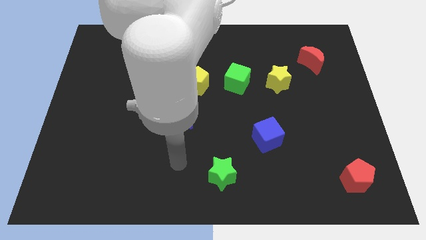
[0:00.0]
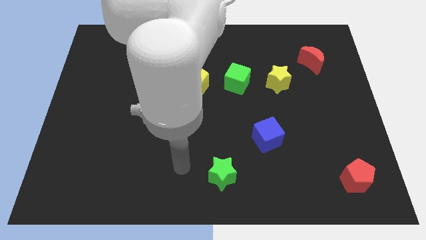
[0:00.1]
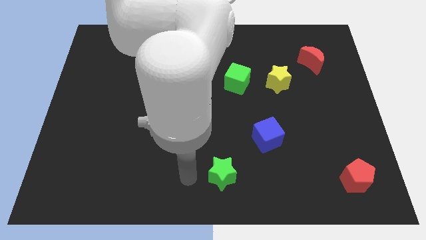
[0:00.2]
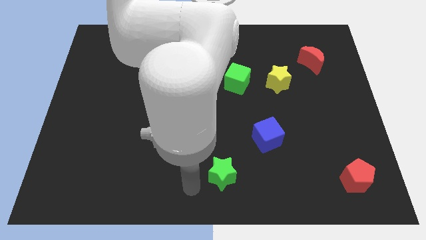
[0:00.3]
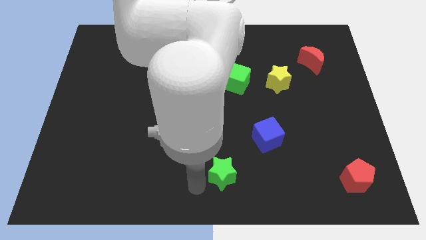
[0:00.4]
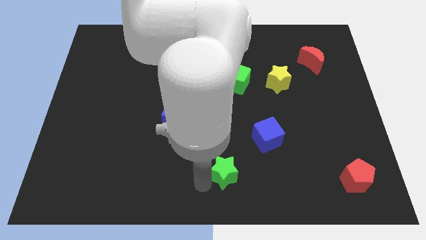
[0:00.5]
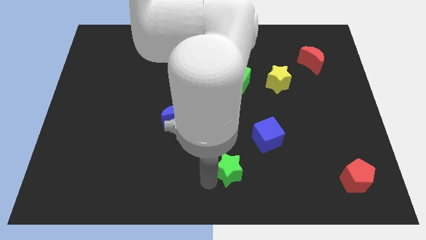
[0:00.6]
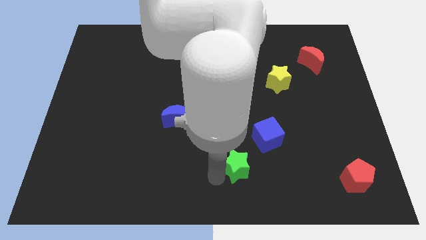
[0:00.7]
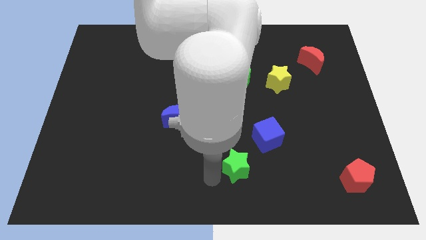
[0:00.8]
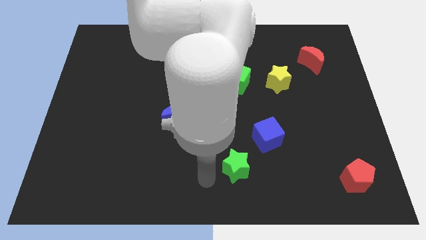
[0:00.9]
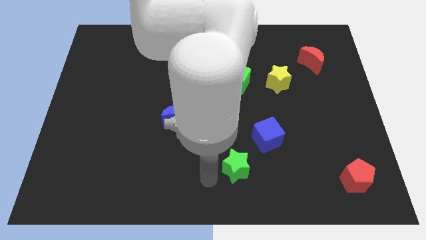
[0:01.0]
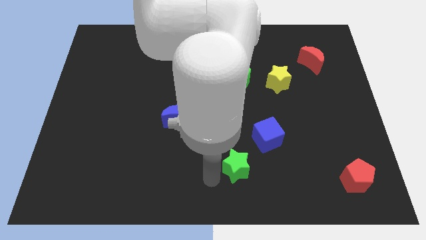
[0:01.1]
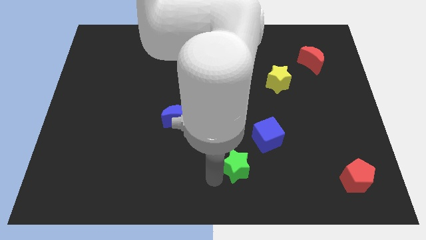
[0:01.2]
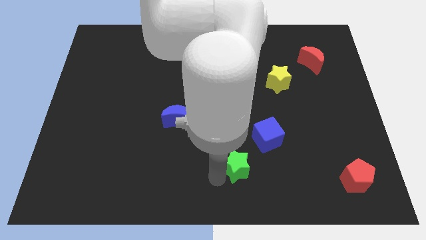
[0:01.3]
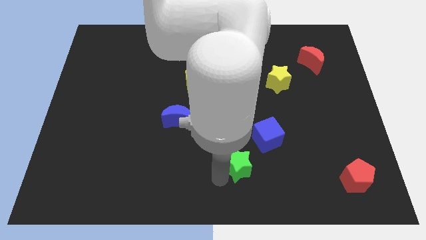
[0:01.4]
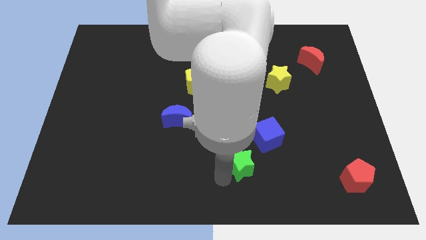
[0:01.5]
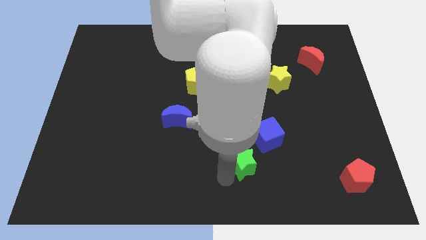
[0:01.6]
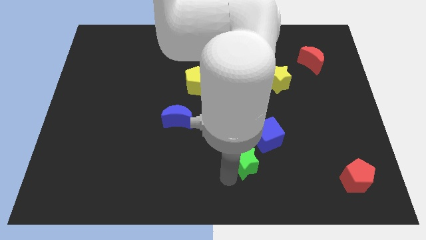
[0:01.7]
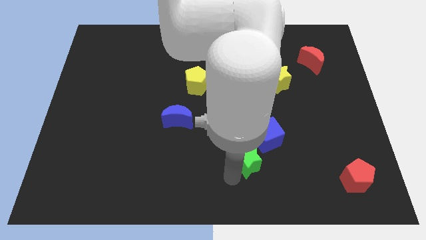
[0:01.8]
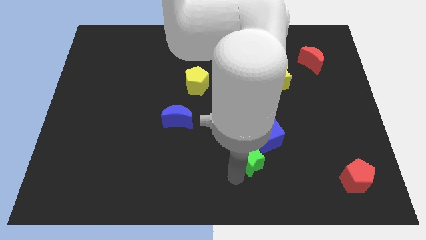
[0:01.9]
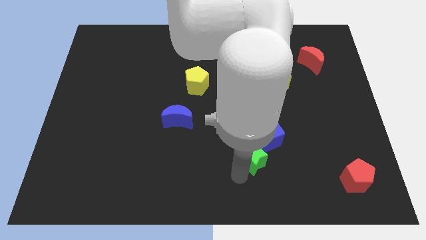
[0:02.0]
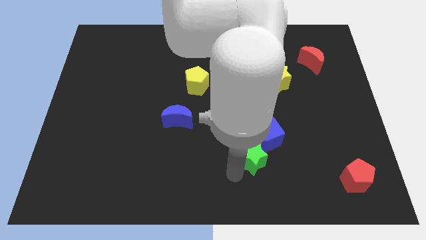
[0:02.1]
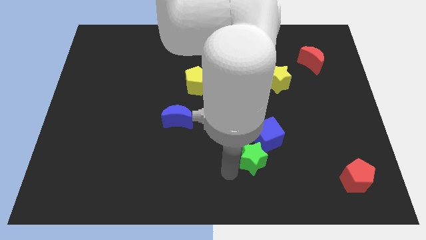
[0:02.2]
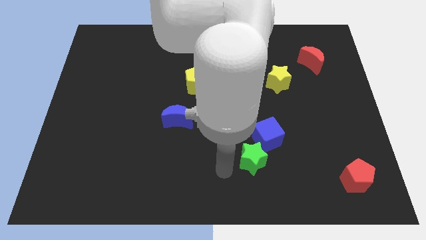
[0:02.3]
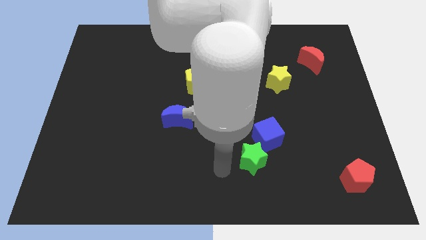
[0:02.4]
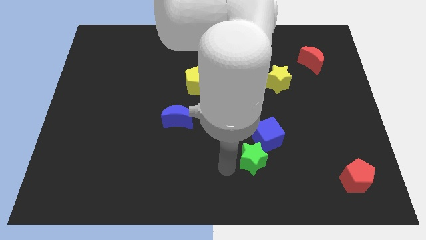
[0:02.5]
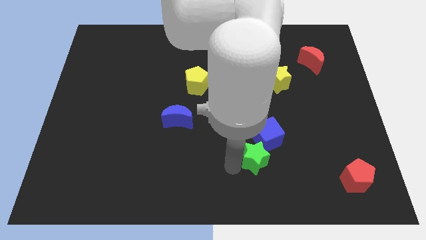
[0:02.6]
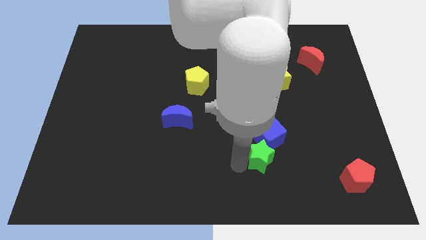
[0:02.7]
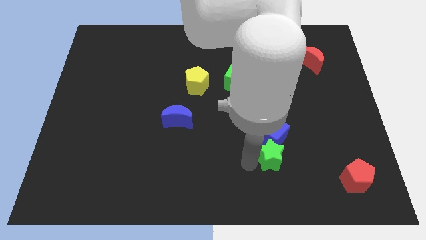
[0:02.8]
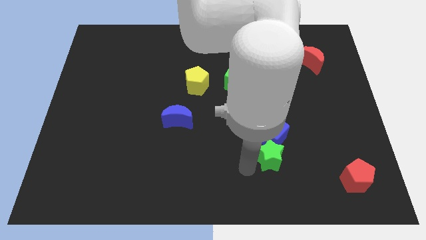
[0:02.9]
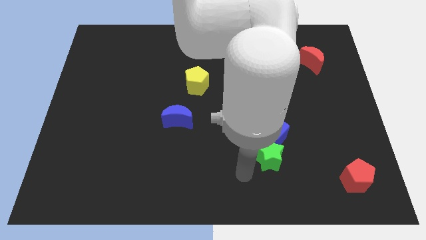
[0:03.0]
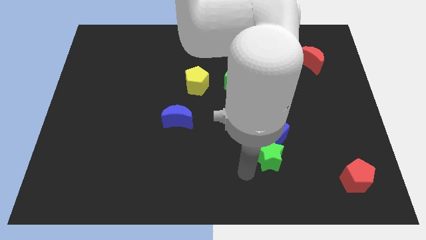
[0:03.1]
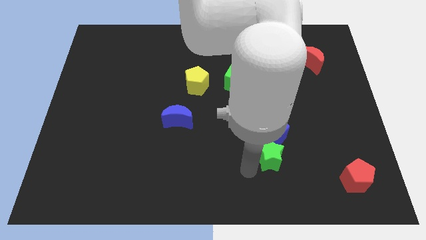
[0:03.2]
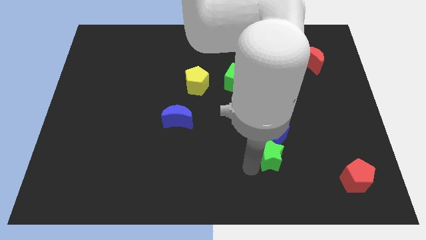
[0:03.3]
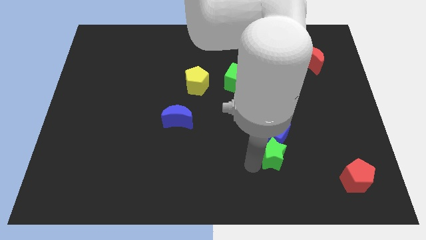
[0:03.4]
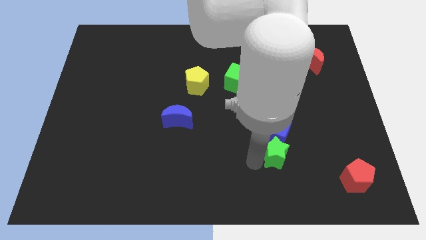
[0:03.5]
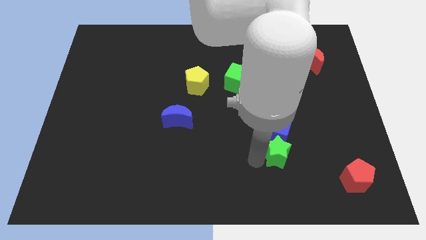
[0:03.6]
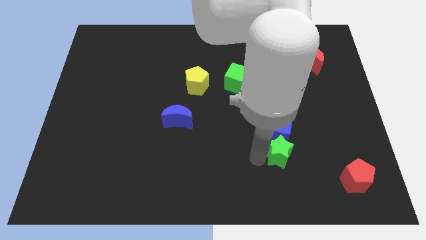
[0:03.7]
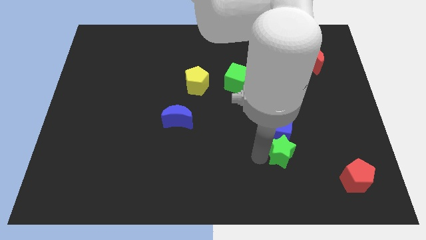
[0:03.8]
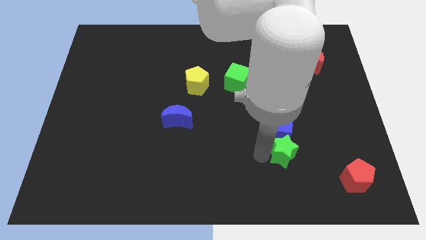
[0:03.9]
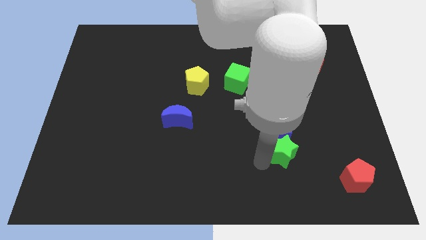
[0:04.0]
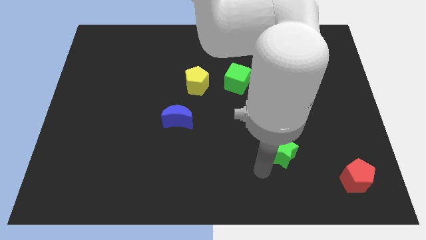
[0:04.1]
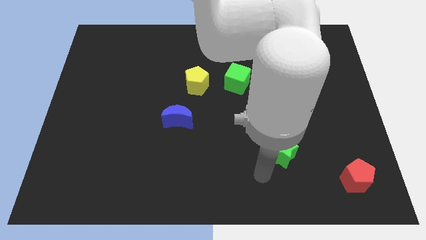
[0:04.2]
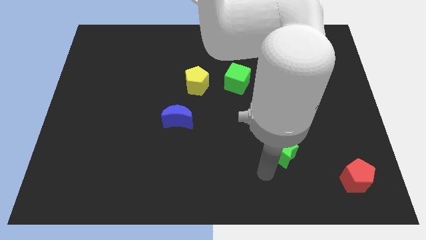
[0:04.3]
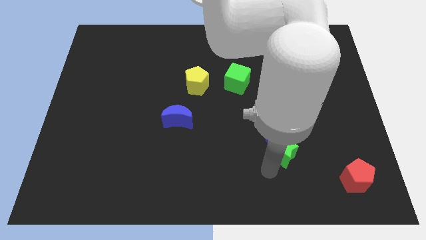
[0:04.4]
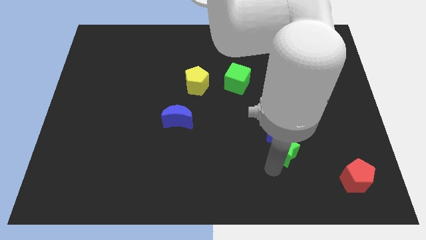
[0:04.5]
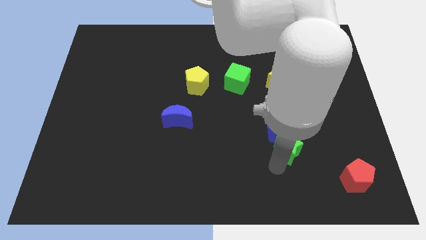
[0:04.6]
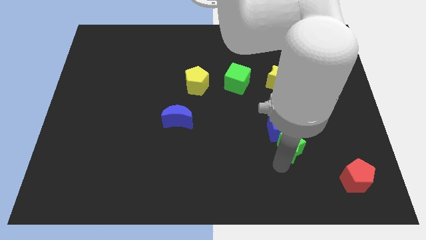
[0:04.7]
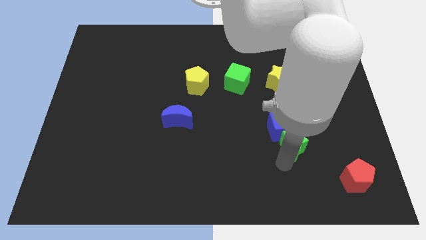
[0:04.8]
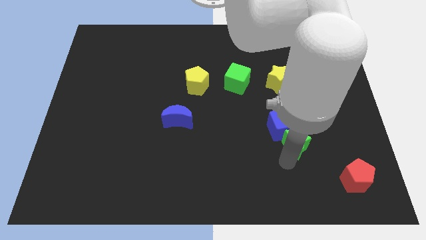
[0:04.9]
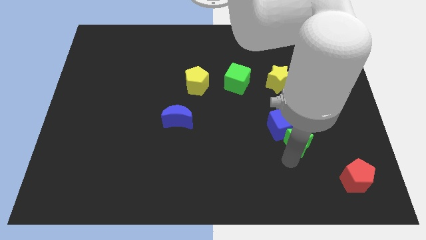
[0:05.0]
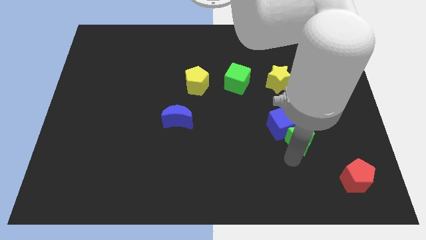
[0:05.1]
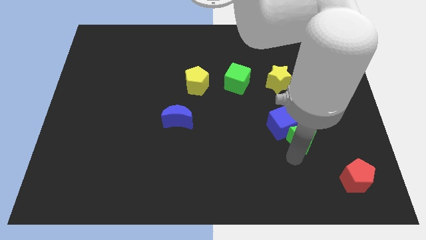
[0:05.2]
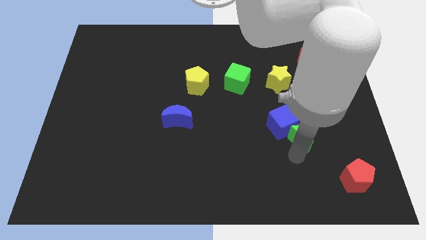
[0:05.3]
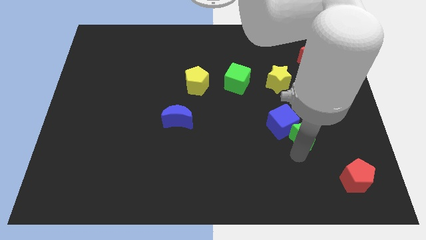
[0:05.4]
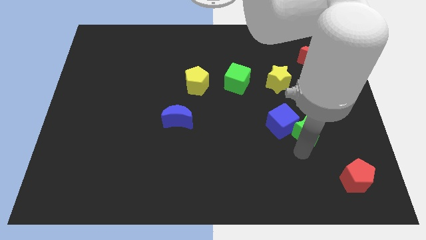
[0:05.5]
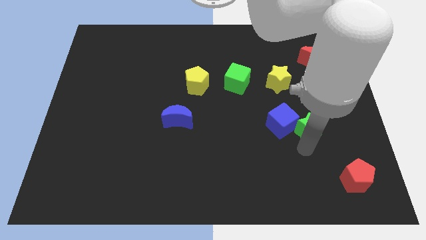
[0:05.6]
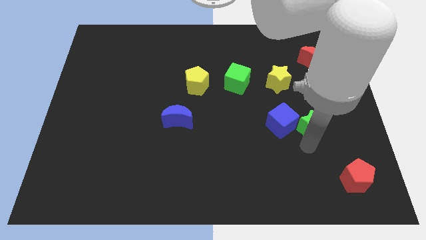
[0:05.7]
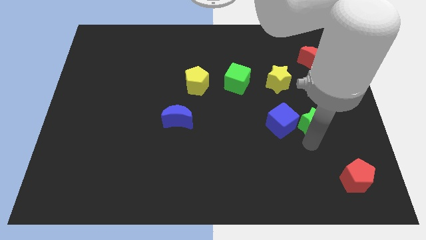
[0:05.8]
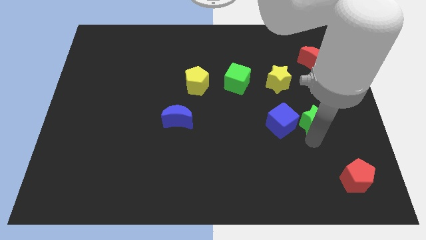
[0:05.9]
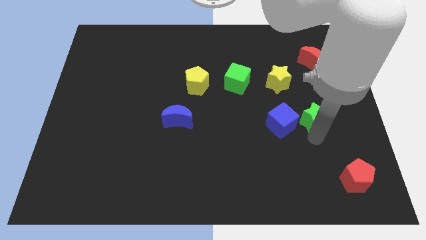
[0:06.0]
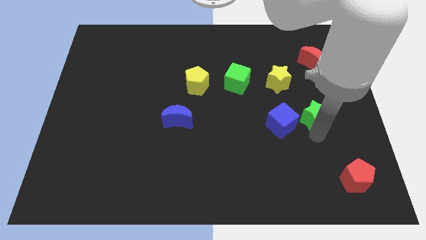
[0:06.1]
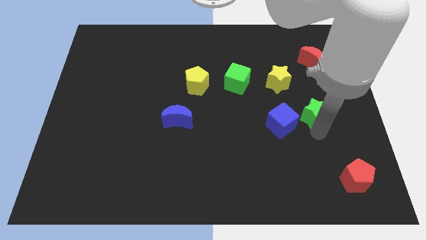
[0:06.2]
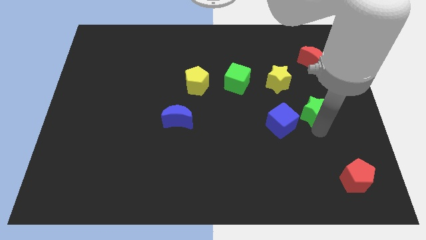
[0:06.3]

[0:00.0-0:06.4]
push the green star diagonally down and to the right of the yellow star

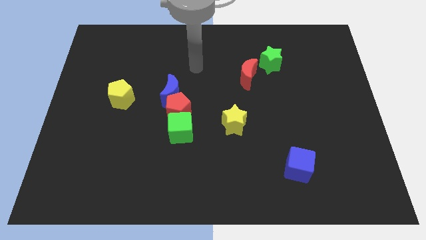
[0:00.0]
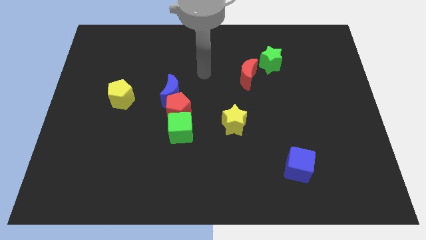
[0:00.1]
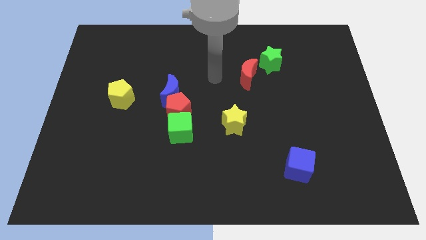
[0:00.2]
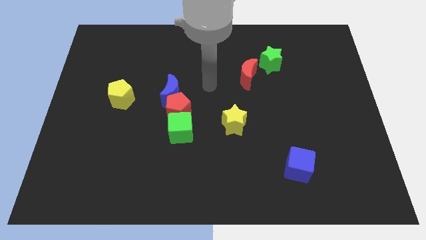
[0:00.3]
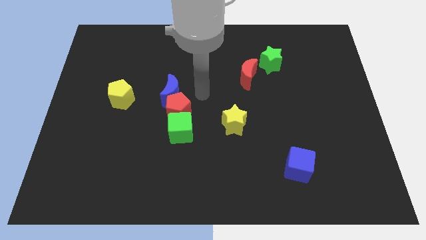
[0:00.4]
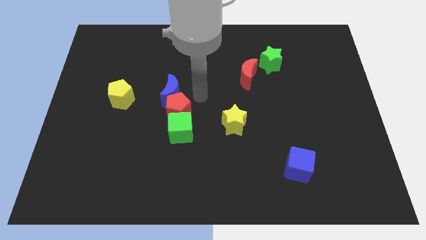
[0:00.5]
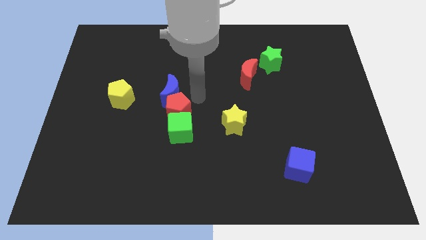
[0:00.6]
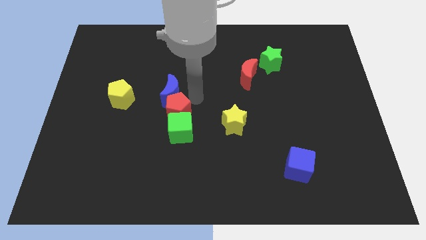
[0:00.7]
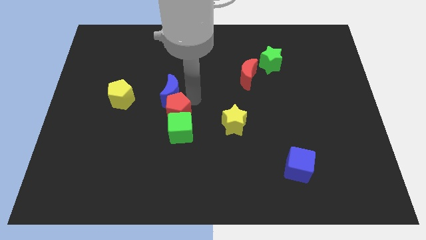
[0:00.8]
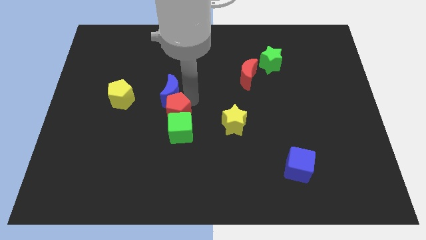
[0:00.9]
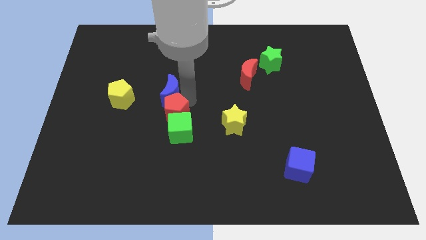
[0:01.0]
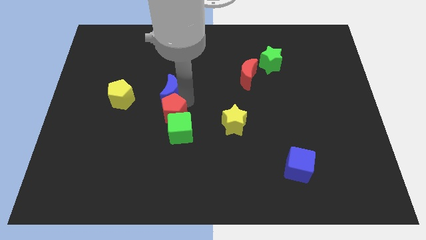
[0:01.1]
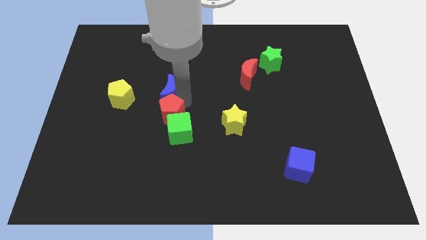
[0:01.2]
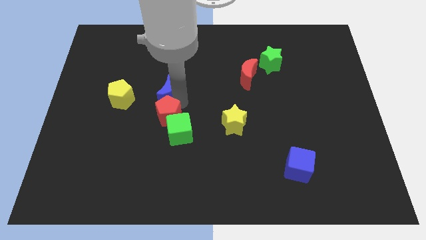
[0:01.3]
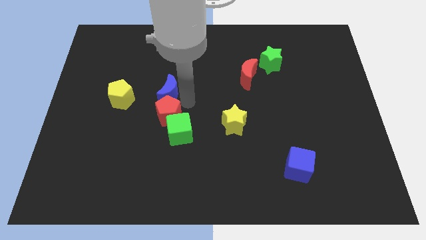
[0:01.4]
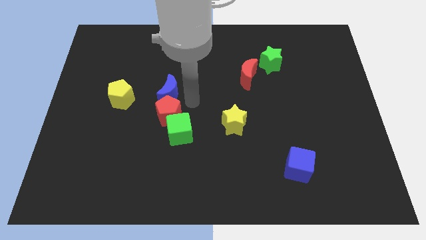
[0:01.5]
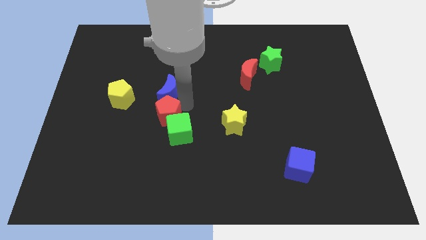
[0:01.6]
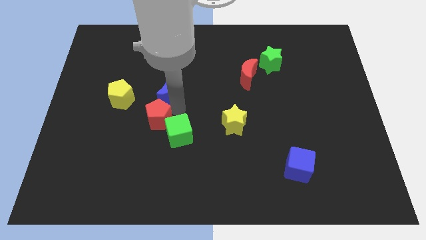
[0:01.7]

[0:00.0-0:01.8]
move the red pentagon to the left of the green cube

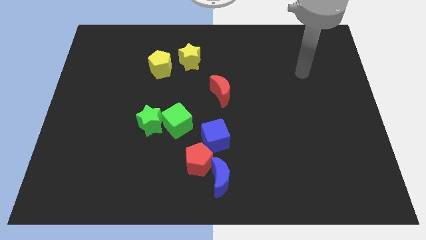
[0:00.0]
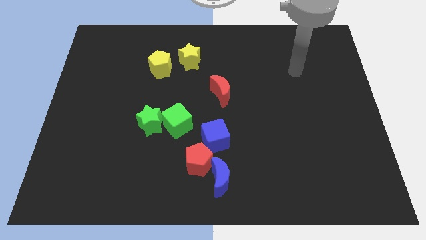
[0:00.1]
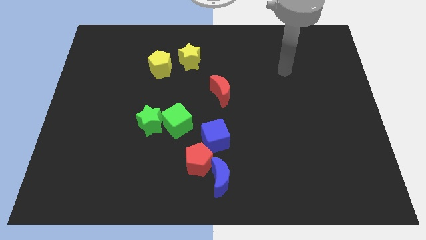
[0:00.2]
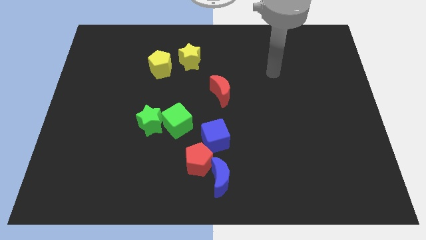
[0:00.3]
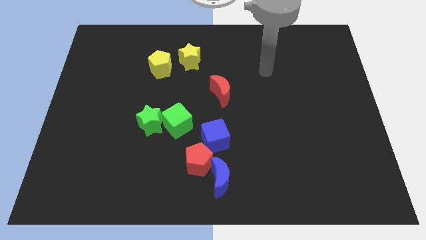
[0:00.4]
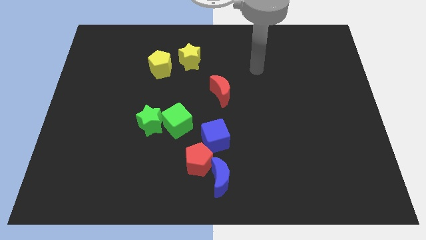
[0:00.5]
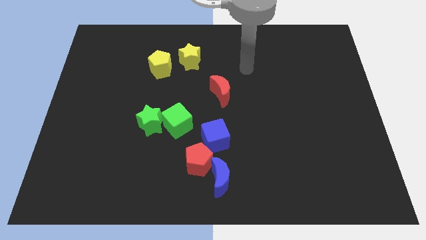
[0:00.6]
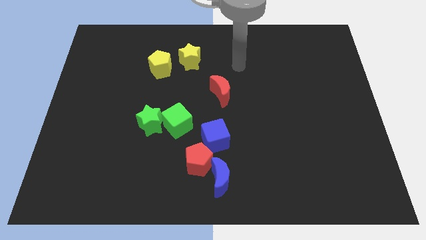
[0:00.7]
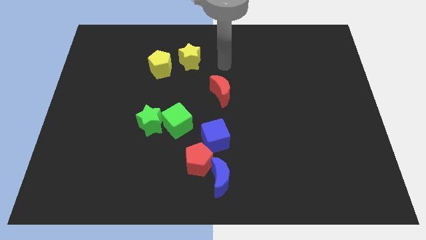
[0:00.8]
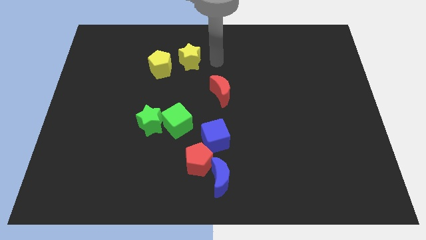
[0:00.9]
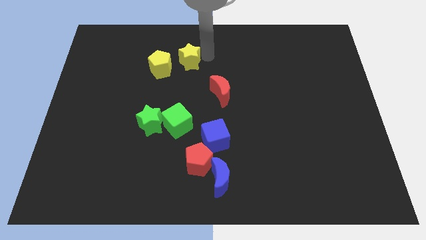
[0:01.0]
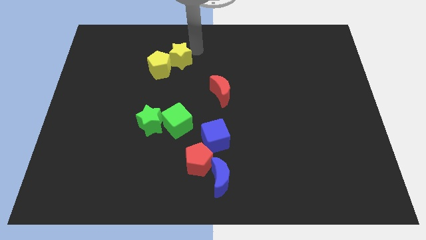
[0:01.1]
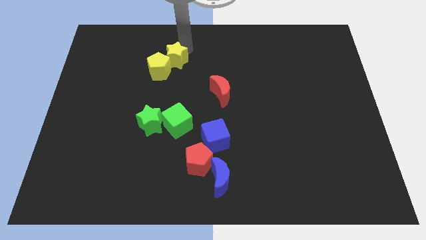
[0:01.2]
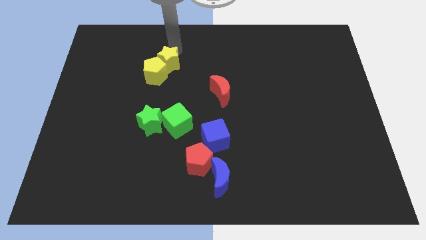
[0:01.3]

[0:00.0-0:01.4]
move the yellow pentagon to the top side of the green star
